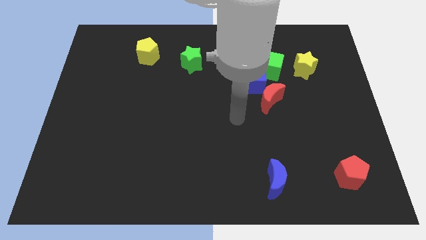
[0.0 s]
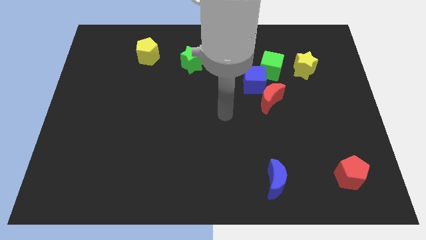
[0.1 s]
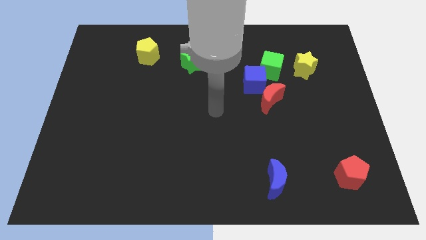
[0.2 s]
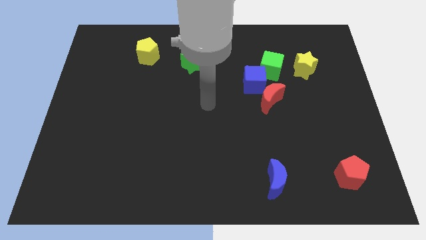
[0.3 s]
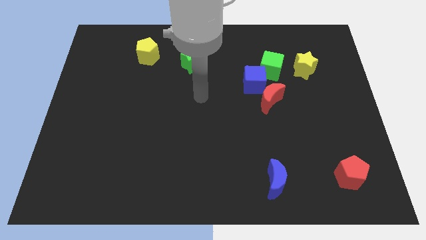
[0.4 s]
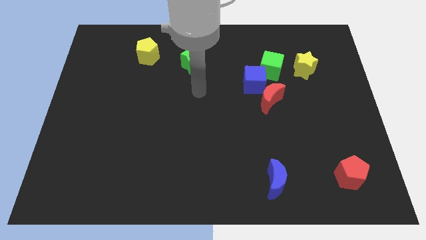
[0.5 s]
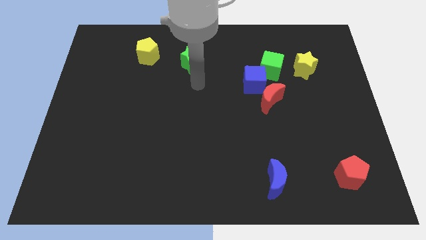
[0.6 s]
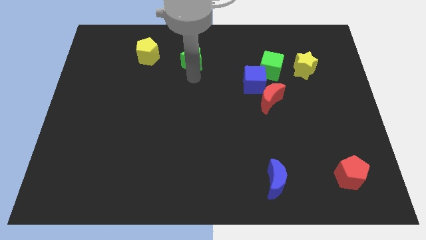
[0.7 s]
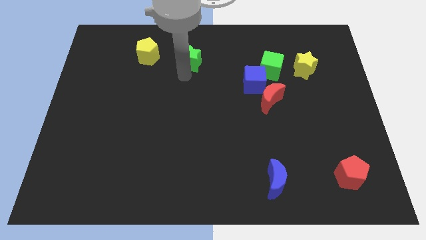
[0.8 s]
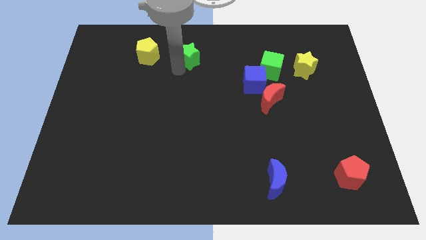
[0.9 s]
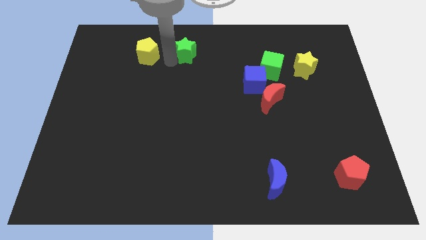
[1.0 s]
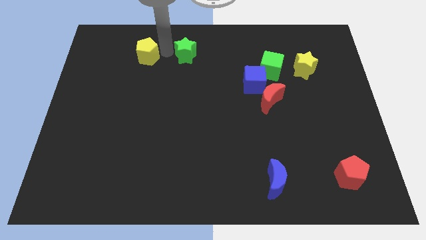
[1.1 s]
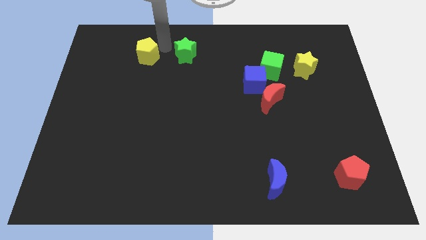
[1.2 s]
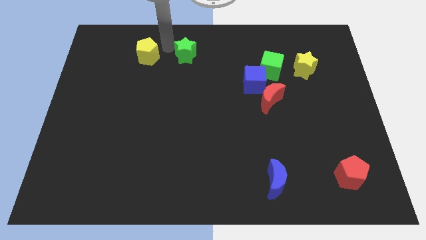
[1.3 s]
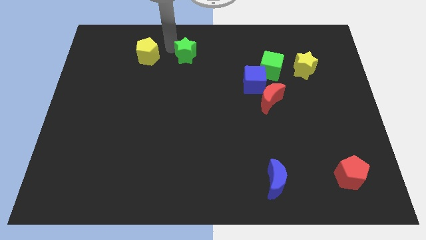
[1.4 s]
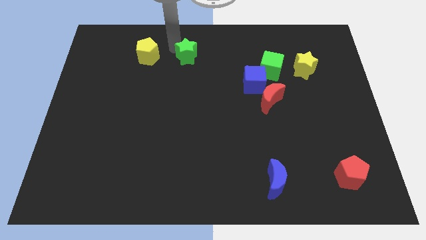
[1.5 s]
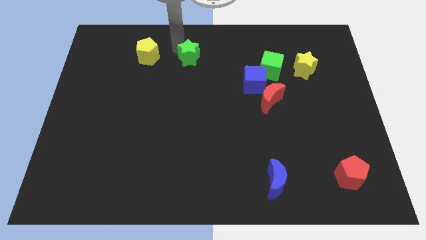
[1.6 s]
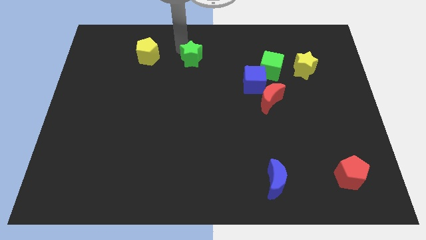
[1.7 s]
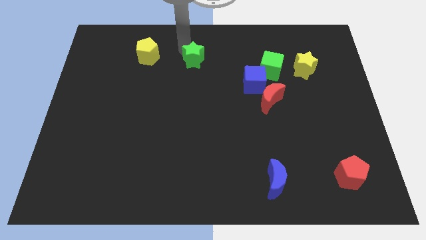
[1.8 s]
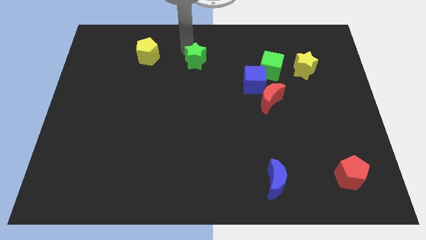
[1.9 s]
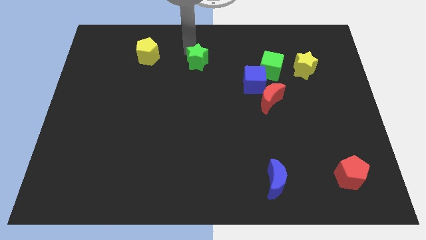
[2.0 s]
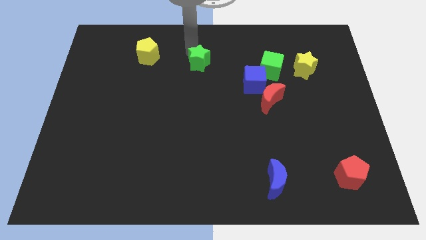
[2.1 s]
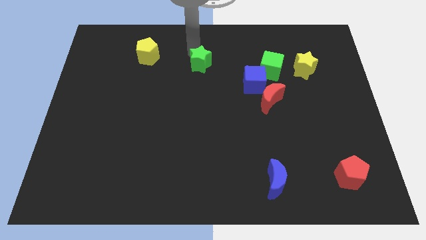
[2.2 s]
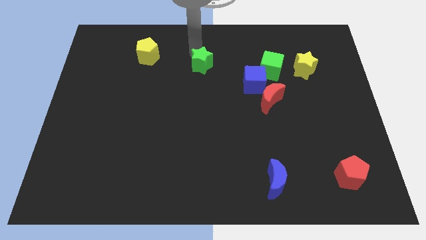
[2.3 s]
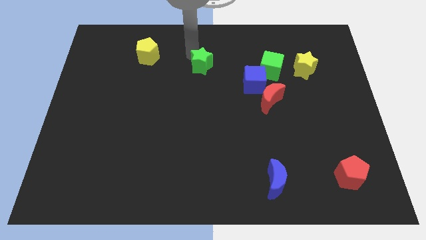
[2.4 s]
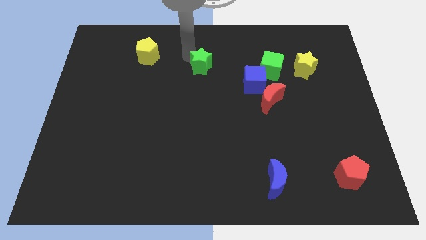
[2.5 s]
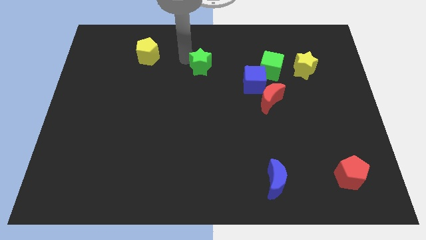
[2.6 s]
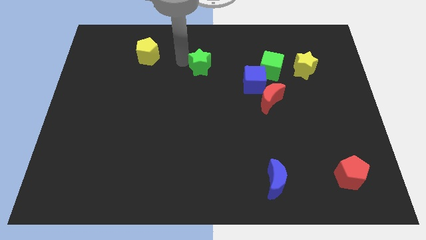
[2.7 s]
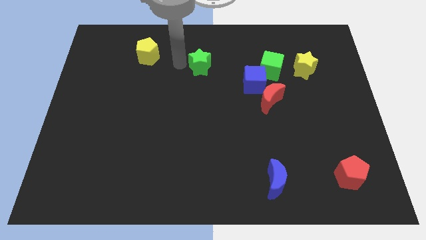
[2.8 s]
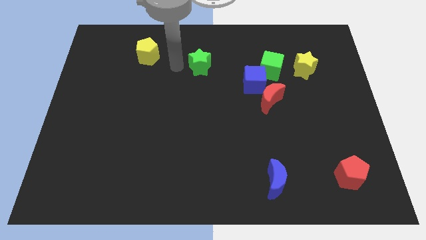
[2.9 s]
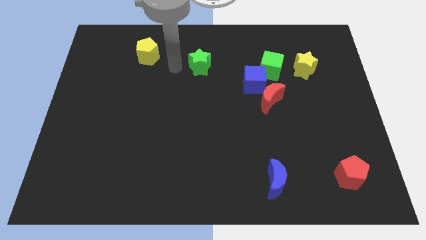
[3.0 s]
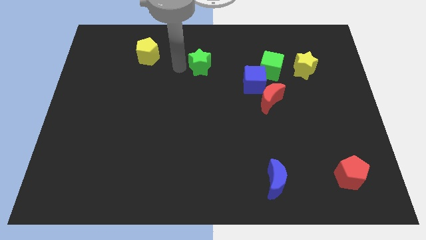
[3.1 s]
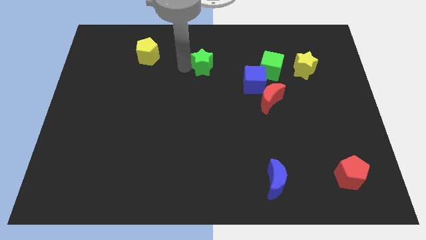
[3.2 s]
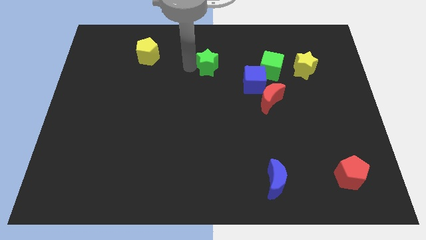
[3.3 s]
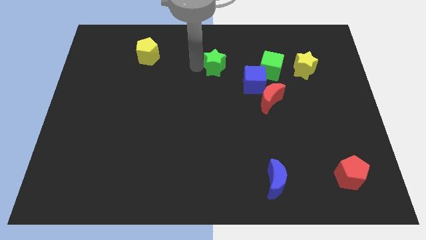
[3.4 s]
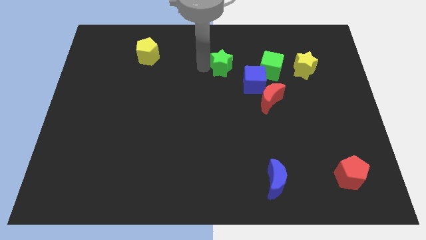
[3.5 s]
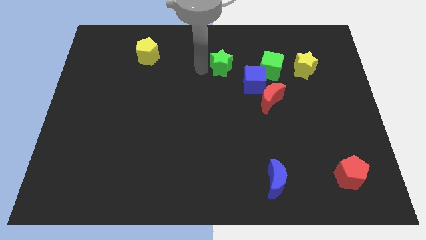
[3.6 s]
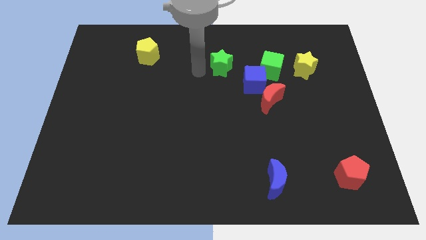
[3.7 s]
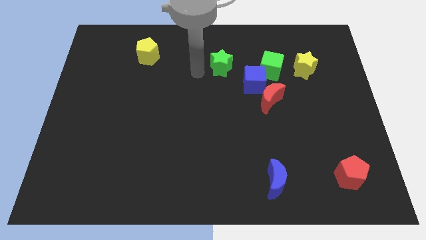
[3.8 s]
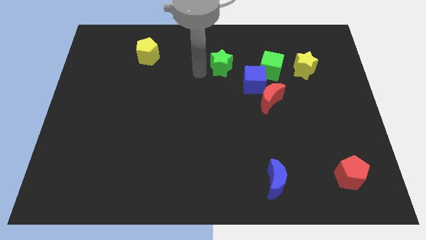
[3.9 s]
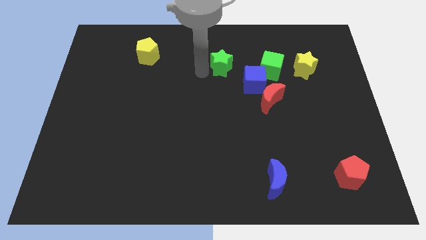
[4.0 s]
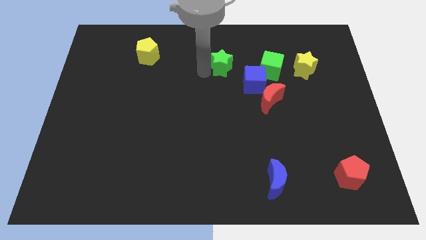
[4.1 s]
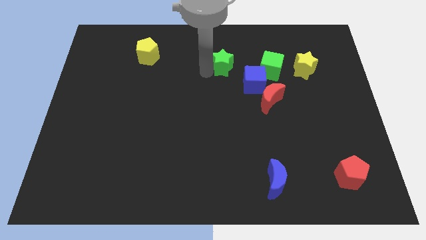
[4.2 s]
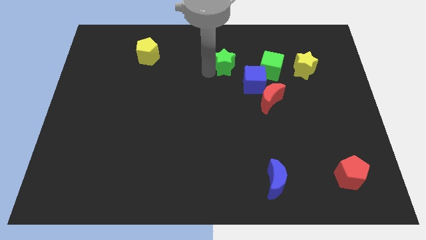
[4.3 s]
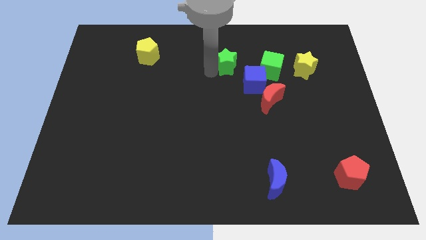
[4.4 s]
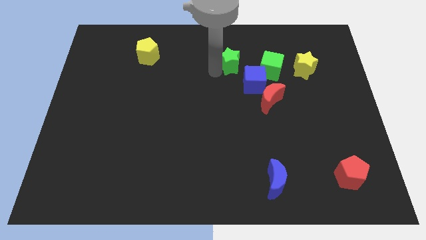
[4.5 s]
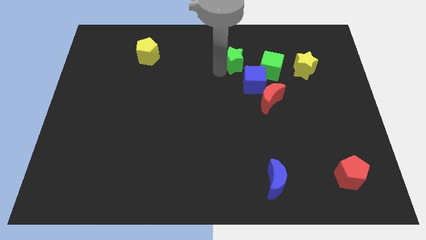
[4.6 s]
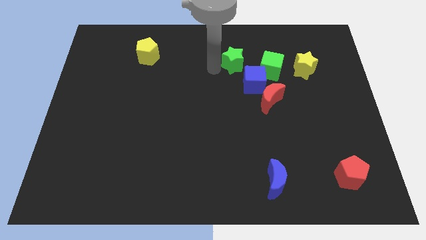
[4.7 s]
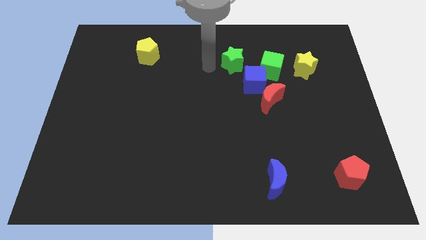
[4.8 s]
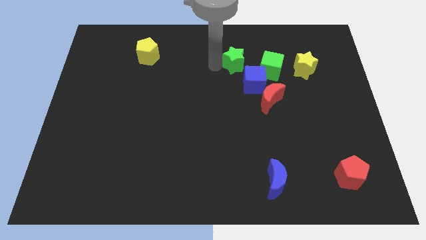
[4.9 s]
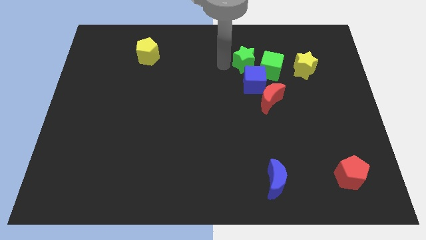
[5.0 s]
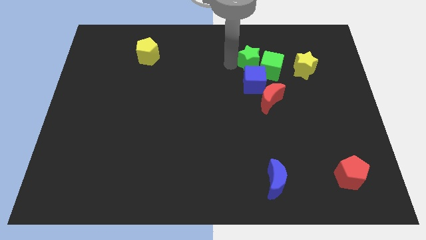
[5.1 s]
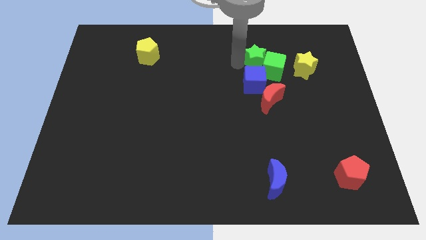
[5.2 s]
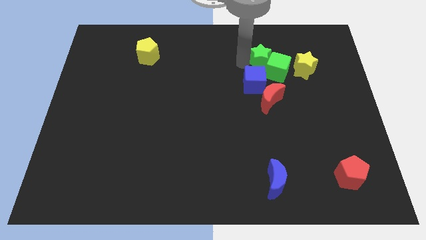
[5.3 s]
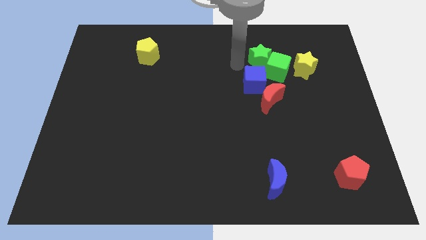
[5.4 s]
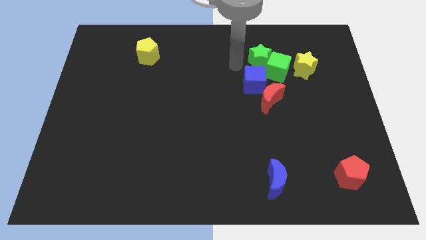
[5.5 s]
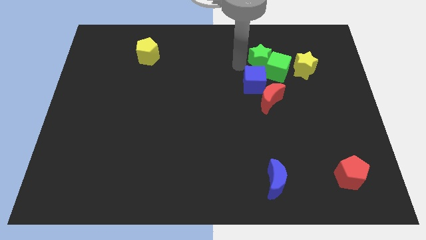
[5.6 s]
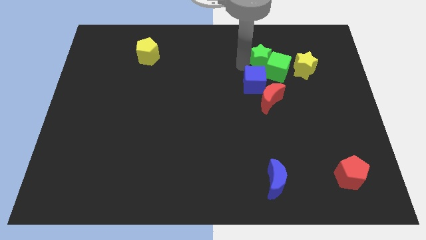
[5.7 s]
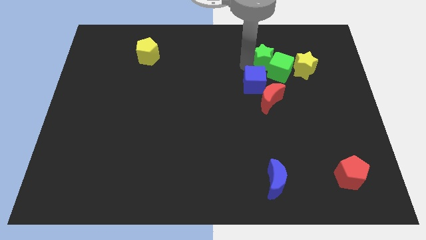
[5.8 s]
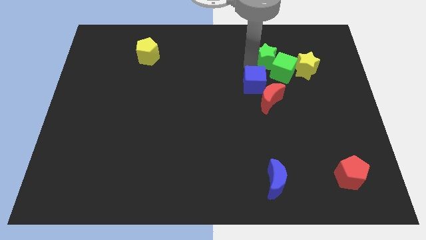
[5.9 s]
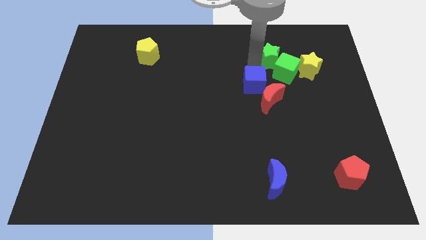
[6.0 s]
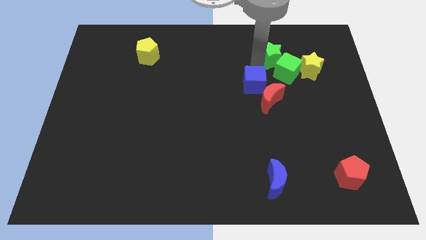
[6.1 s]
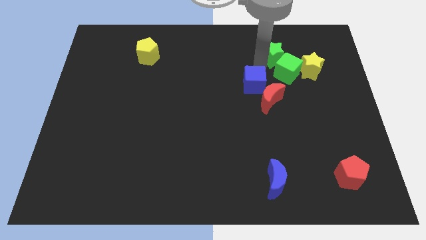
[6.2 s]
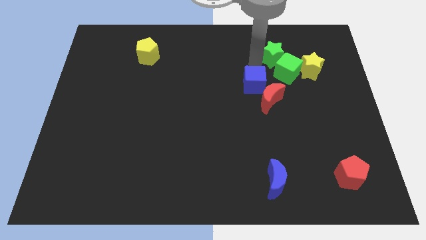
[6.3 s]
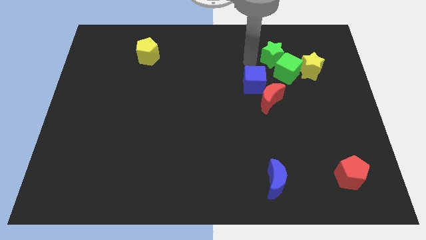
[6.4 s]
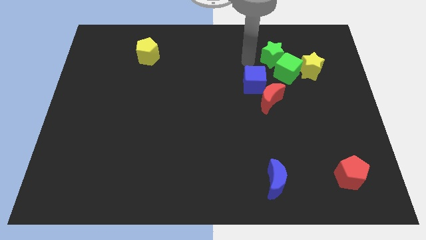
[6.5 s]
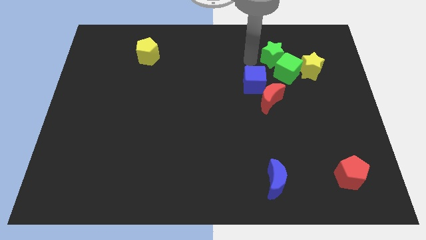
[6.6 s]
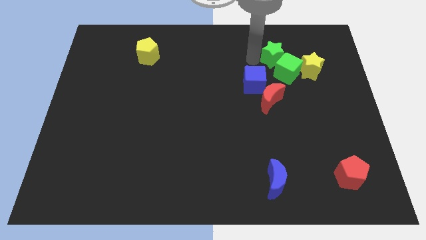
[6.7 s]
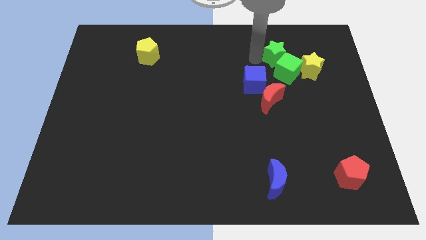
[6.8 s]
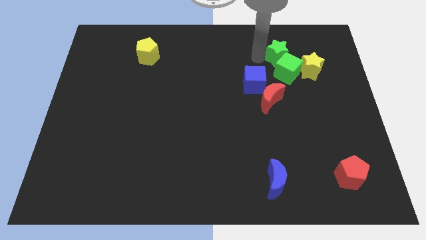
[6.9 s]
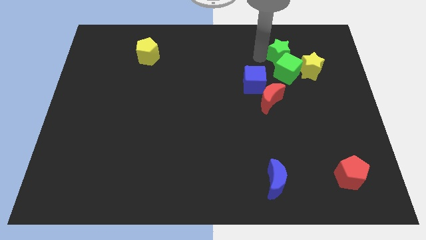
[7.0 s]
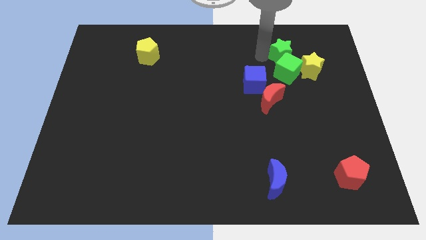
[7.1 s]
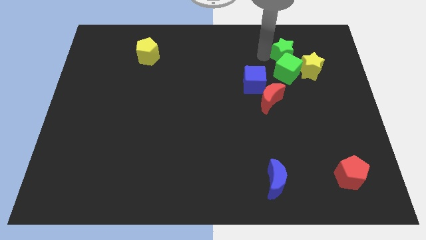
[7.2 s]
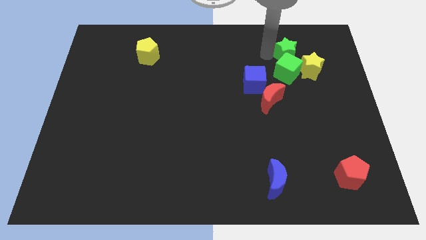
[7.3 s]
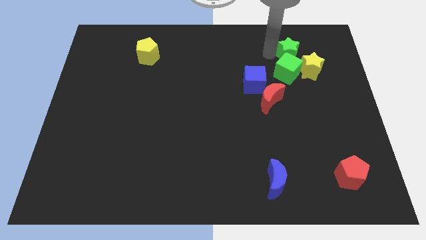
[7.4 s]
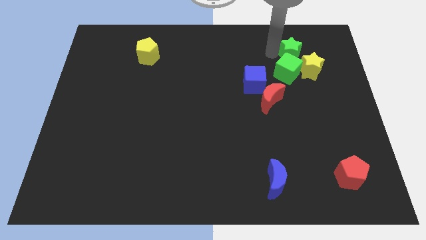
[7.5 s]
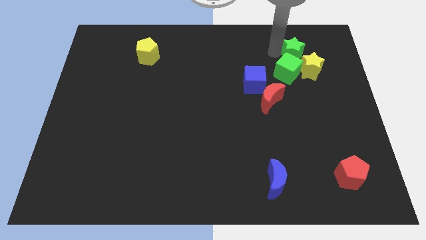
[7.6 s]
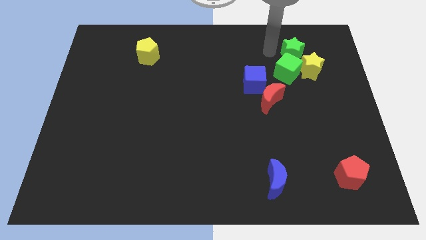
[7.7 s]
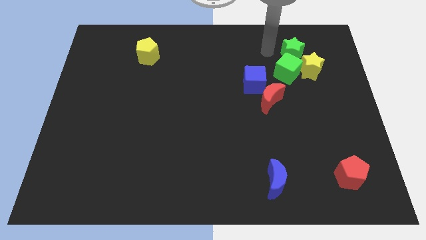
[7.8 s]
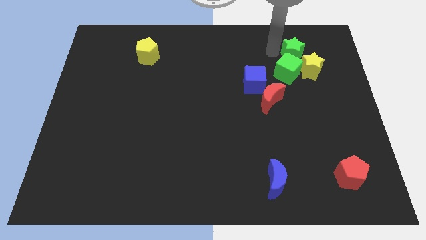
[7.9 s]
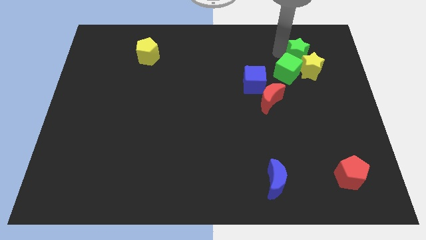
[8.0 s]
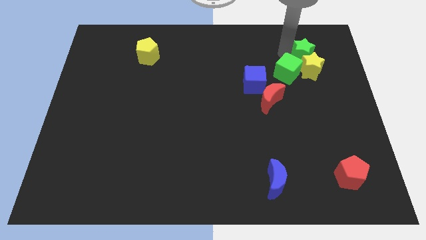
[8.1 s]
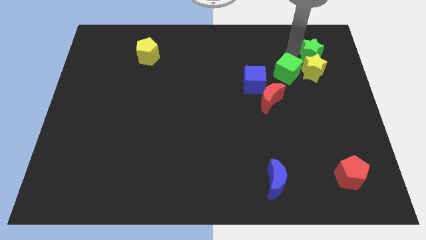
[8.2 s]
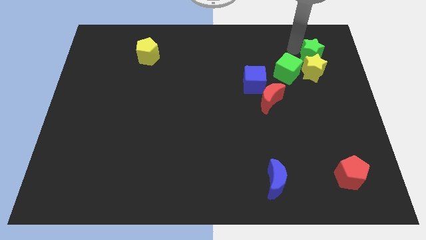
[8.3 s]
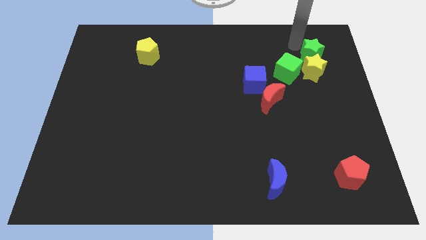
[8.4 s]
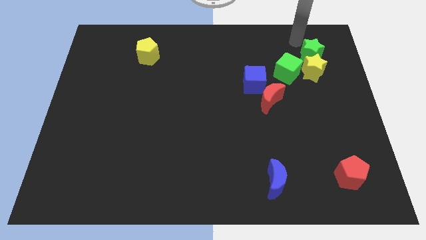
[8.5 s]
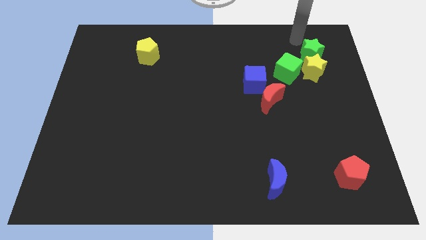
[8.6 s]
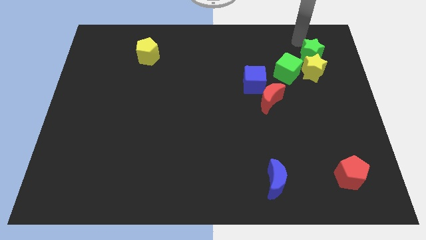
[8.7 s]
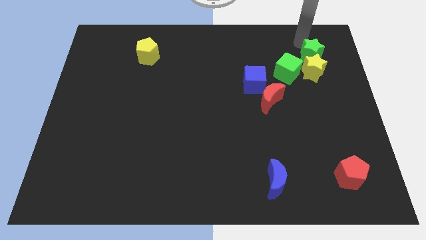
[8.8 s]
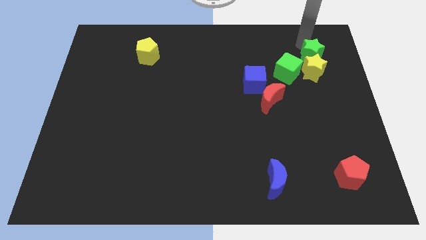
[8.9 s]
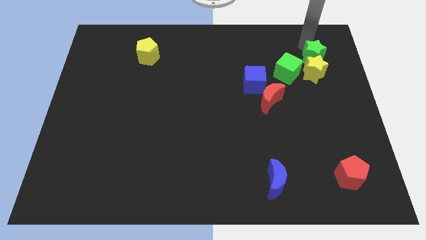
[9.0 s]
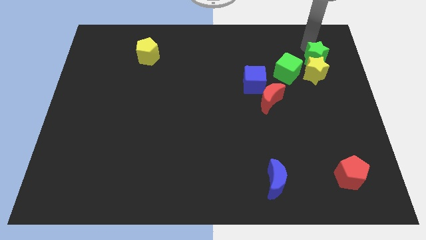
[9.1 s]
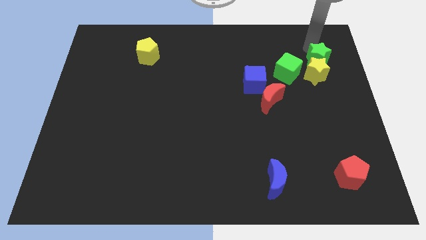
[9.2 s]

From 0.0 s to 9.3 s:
move the green star to the right of the green cube
